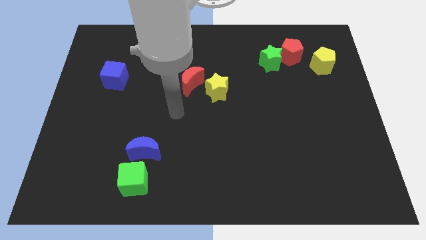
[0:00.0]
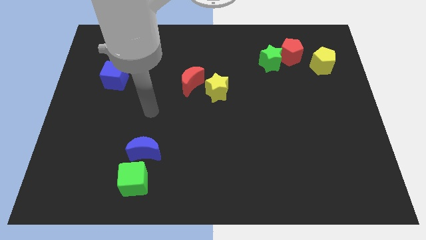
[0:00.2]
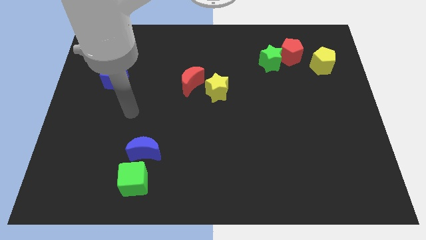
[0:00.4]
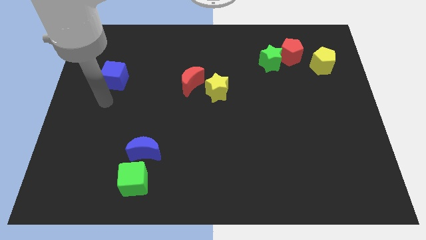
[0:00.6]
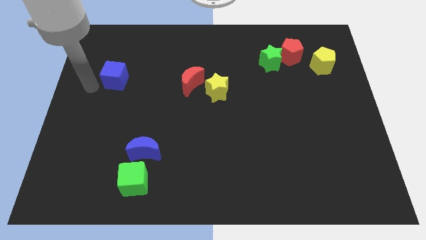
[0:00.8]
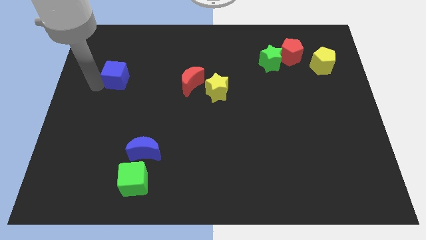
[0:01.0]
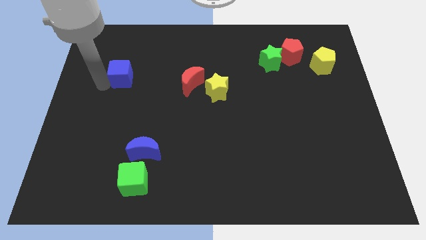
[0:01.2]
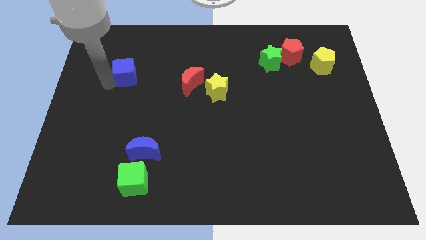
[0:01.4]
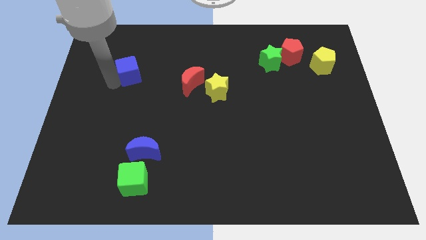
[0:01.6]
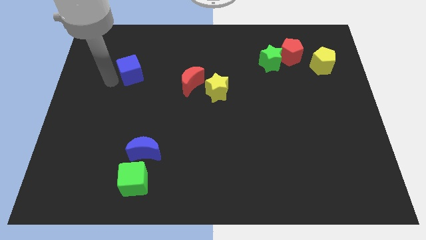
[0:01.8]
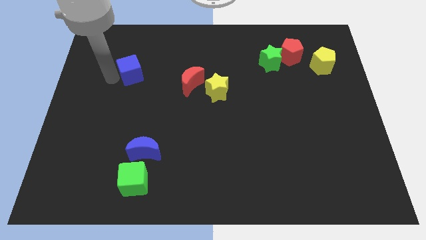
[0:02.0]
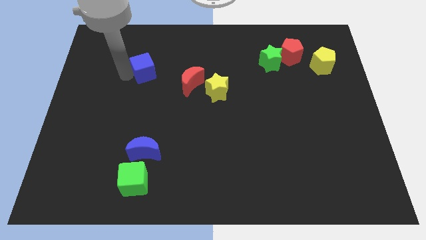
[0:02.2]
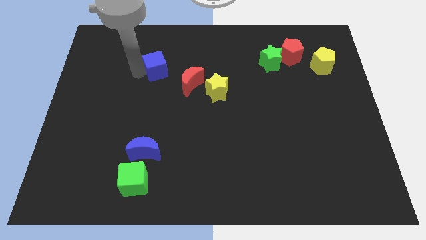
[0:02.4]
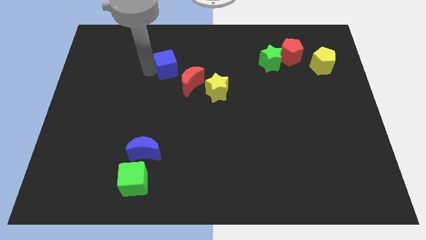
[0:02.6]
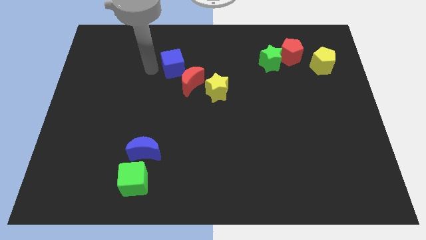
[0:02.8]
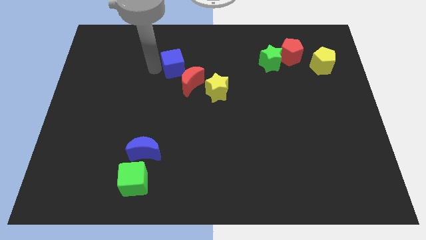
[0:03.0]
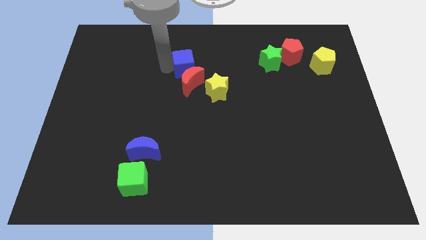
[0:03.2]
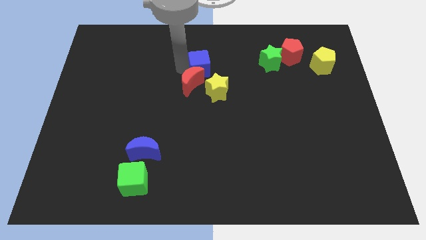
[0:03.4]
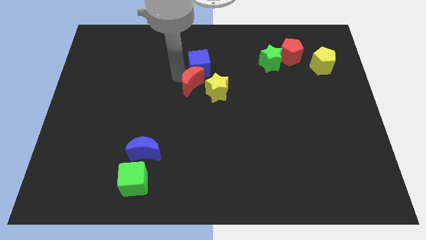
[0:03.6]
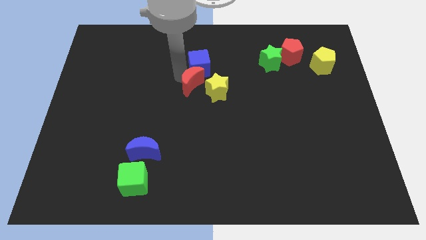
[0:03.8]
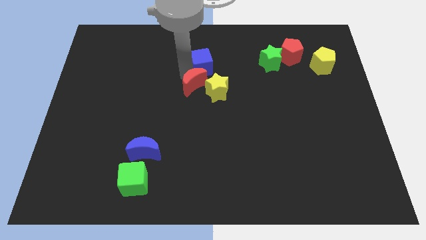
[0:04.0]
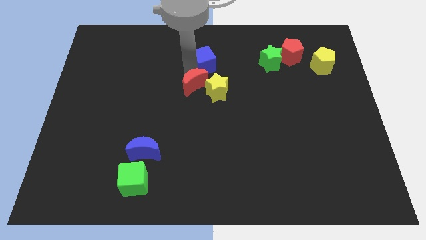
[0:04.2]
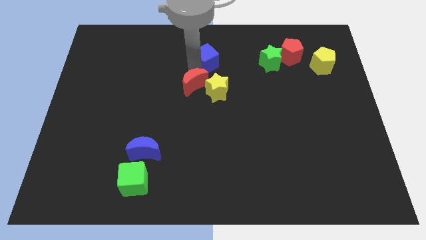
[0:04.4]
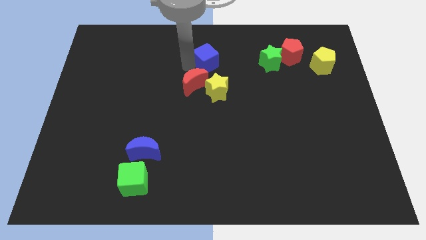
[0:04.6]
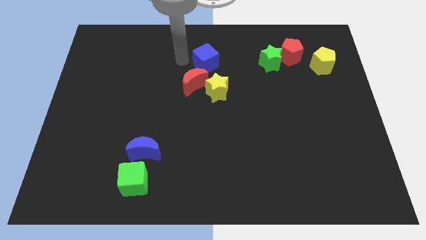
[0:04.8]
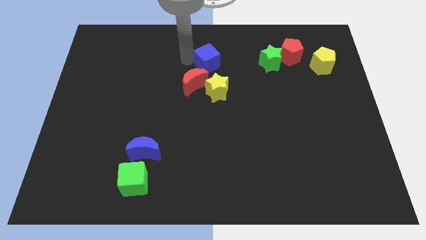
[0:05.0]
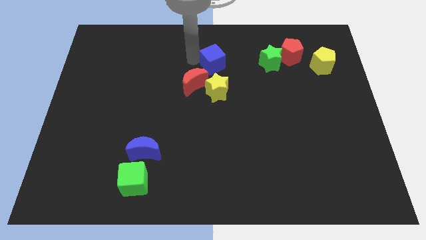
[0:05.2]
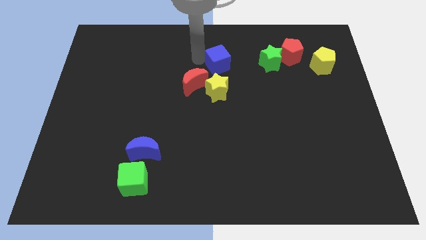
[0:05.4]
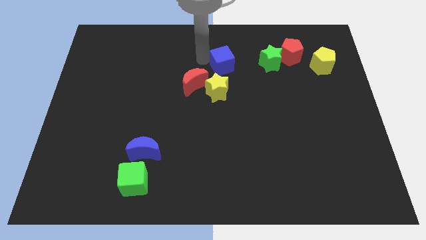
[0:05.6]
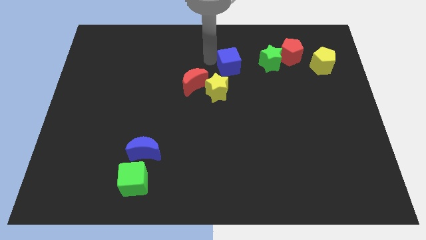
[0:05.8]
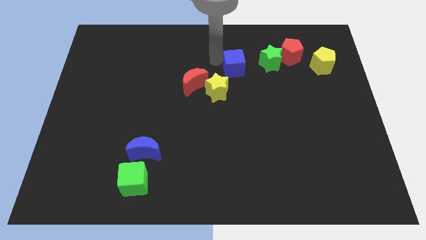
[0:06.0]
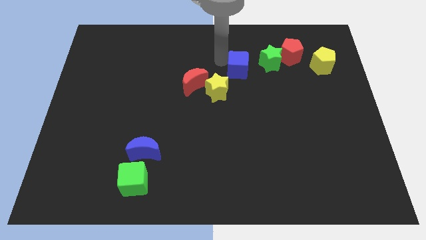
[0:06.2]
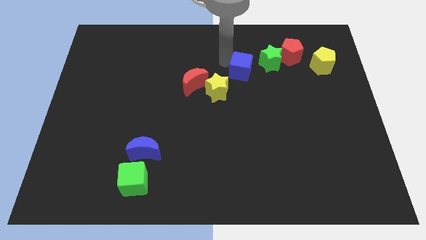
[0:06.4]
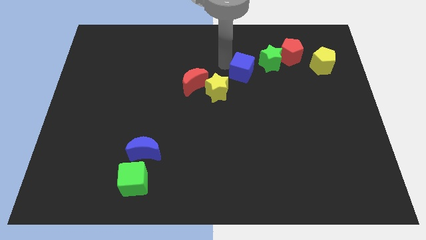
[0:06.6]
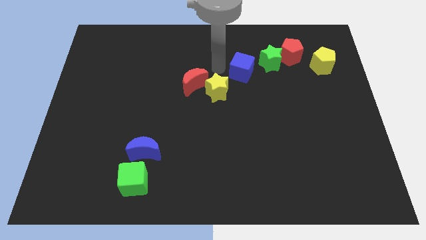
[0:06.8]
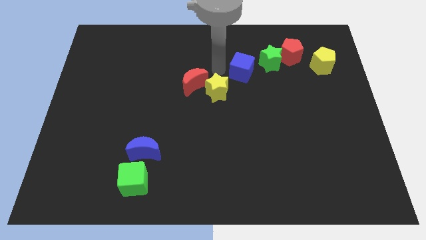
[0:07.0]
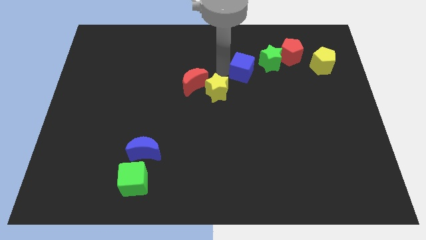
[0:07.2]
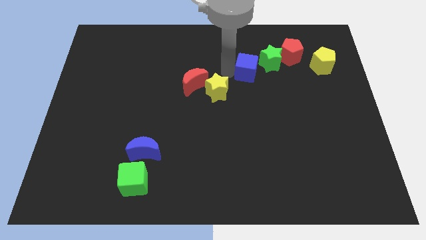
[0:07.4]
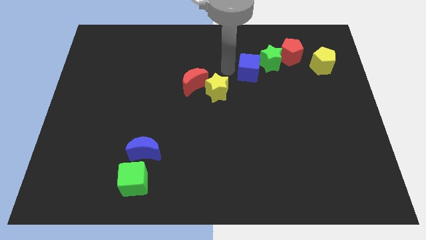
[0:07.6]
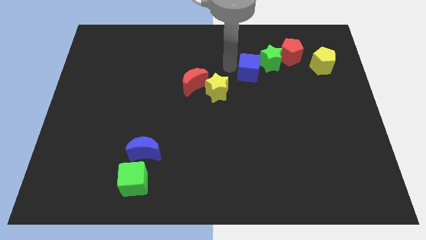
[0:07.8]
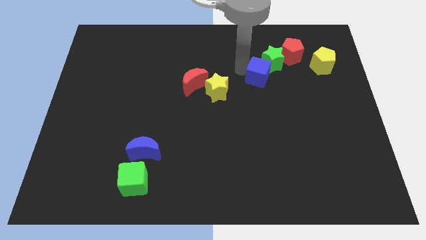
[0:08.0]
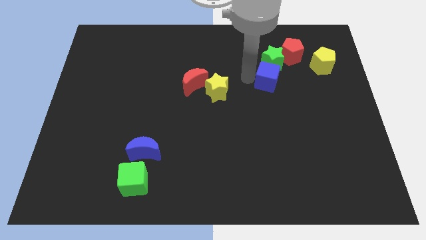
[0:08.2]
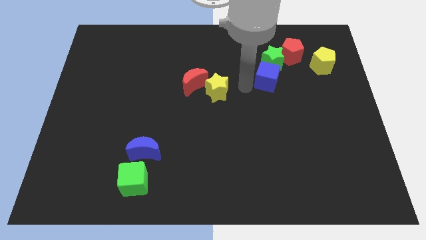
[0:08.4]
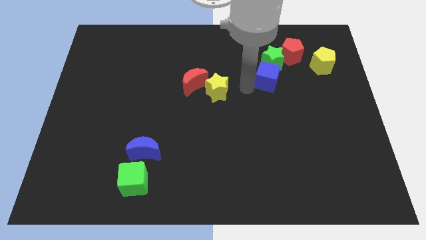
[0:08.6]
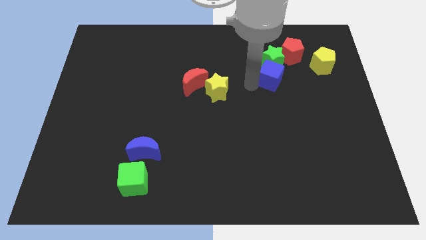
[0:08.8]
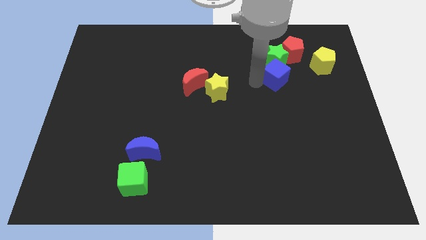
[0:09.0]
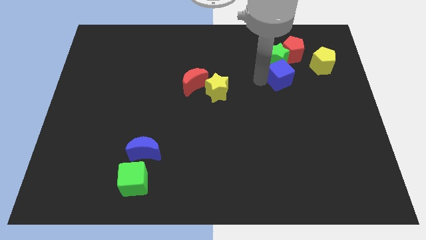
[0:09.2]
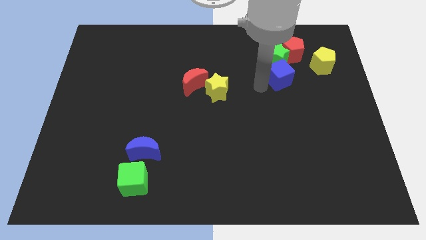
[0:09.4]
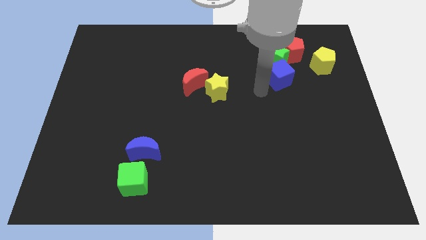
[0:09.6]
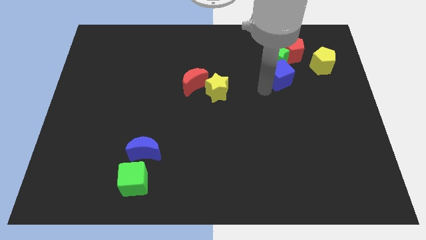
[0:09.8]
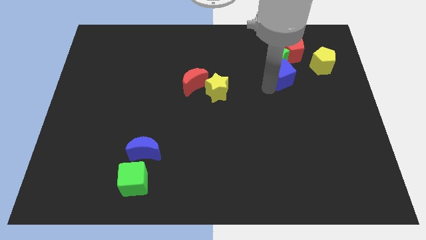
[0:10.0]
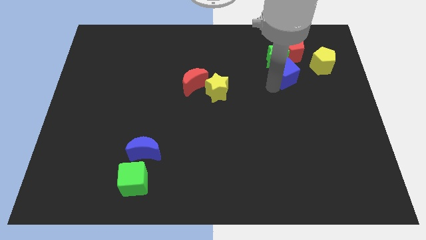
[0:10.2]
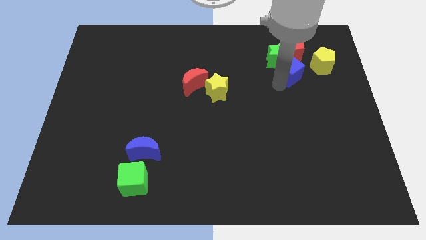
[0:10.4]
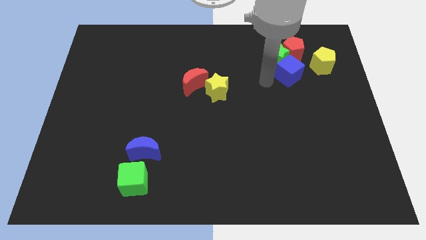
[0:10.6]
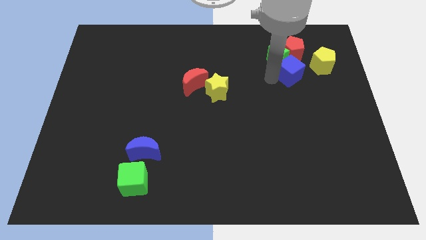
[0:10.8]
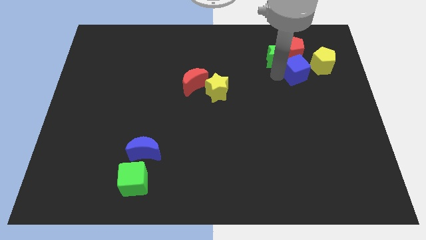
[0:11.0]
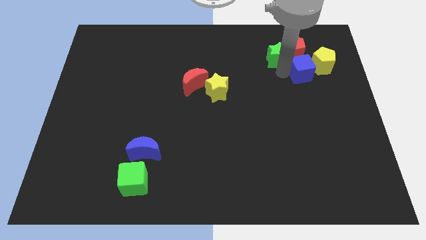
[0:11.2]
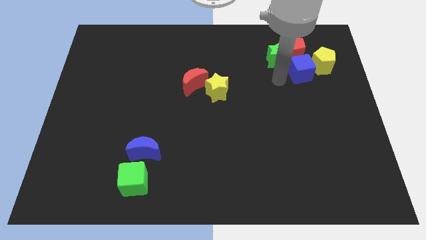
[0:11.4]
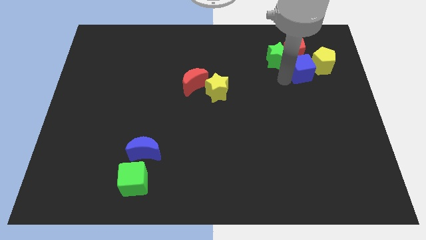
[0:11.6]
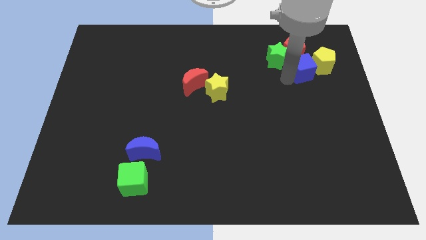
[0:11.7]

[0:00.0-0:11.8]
move the blue cube next to the yellow pentagon
